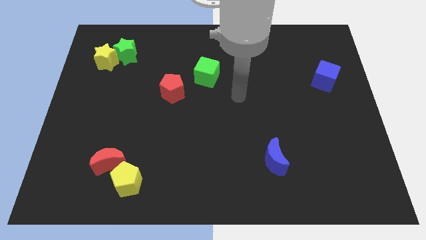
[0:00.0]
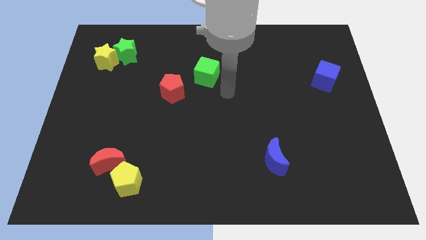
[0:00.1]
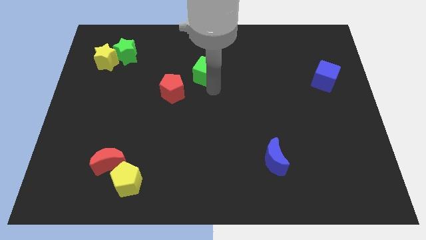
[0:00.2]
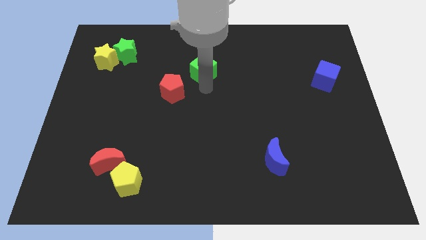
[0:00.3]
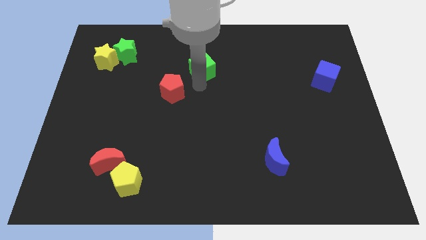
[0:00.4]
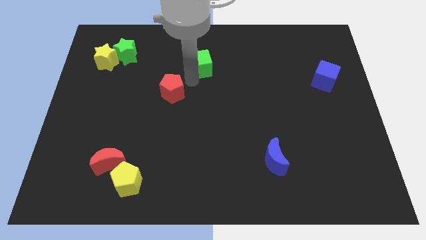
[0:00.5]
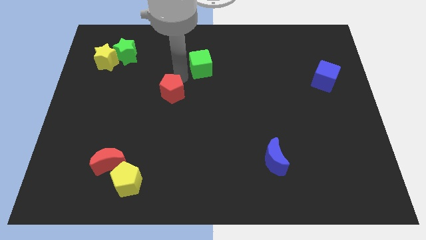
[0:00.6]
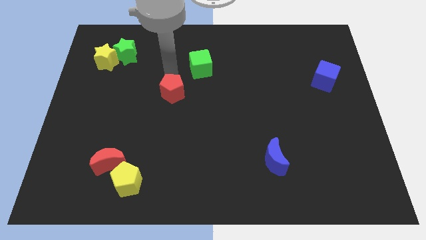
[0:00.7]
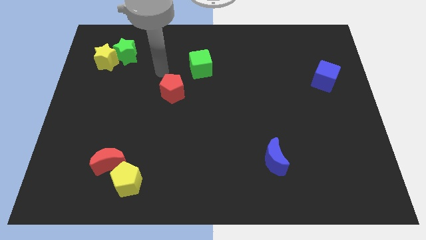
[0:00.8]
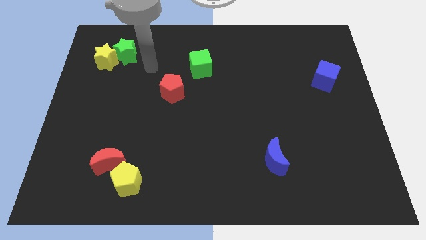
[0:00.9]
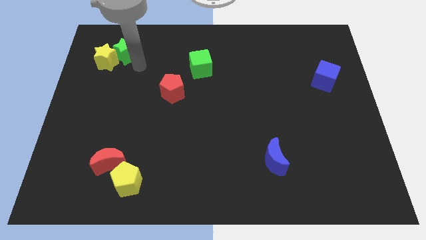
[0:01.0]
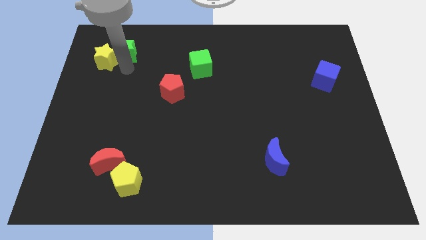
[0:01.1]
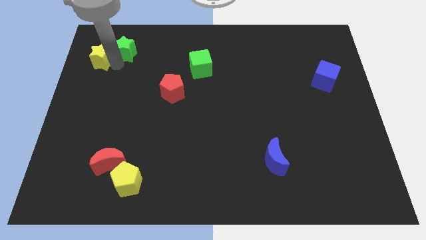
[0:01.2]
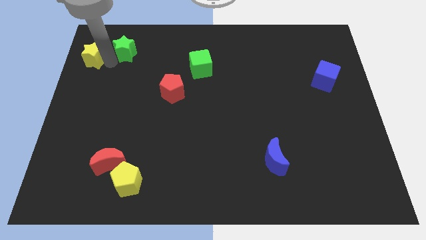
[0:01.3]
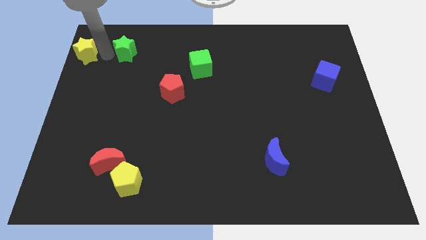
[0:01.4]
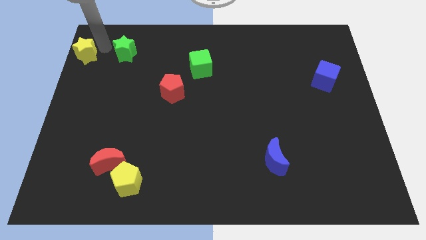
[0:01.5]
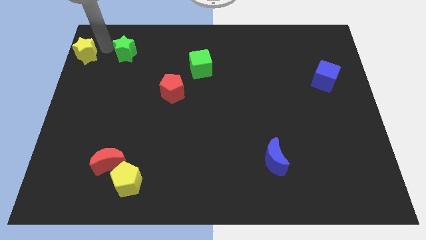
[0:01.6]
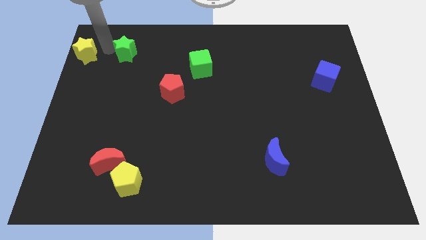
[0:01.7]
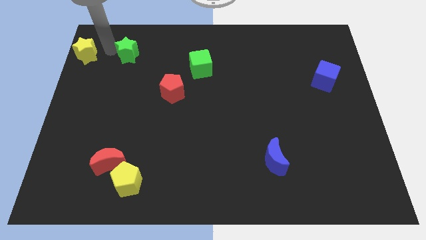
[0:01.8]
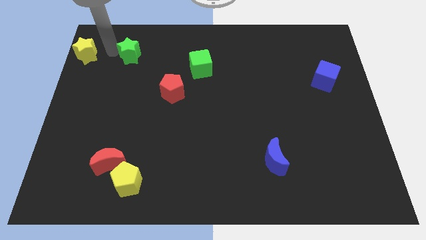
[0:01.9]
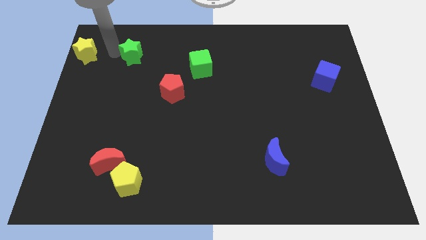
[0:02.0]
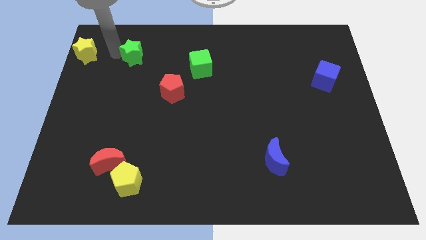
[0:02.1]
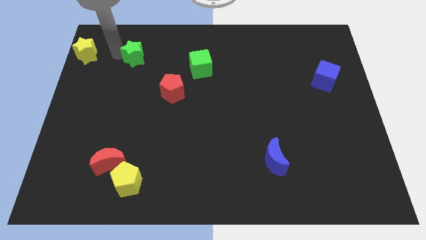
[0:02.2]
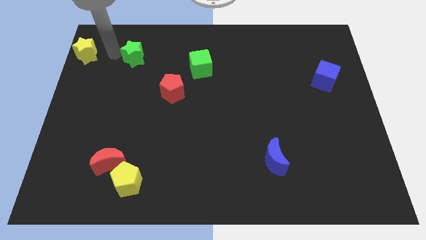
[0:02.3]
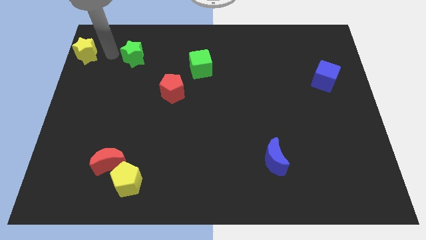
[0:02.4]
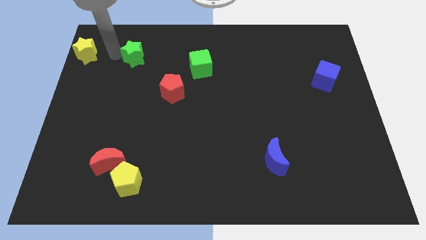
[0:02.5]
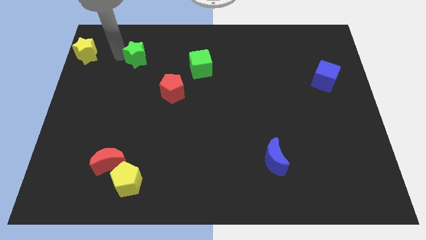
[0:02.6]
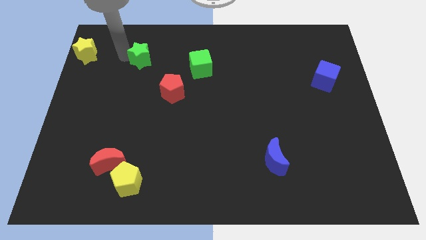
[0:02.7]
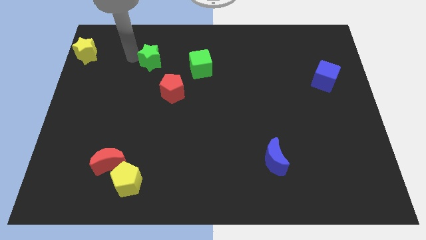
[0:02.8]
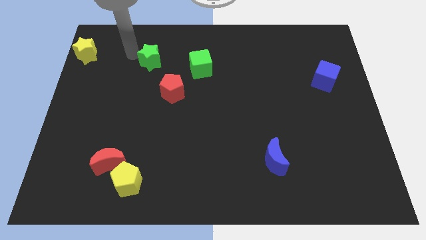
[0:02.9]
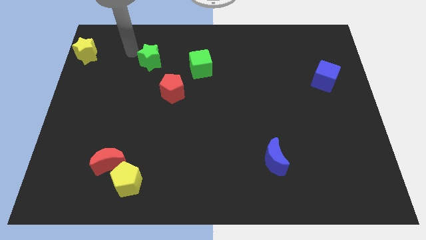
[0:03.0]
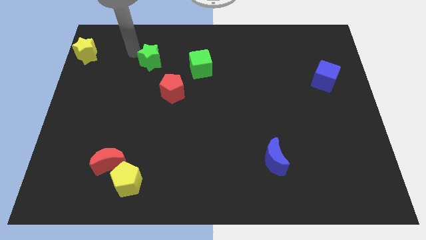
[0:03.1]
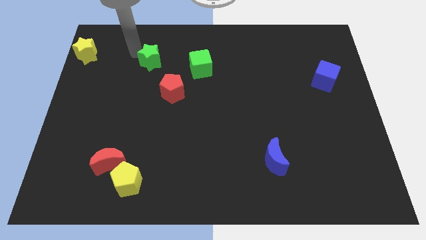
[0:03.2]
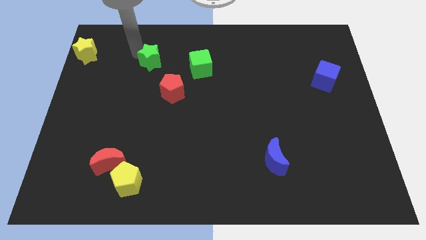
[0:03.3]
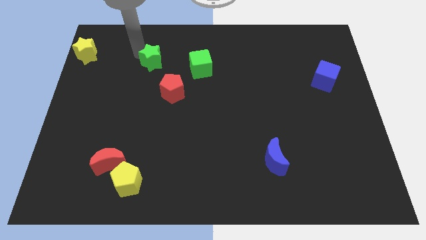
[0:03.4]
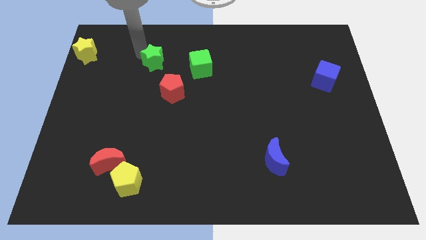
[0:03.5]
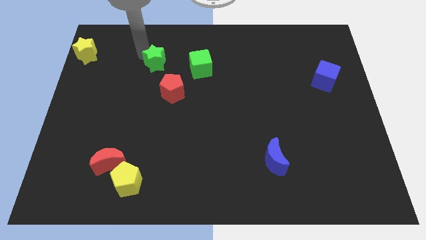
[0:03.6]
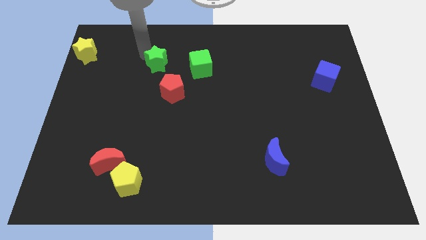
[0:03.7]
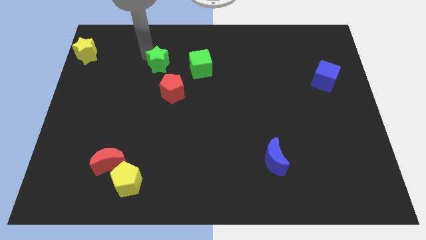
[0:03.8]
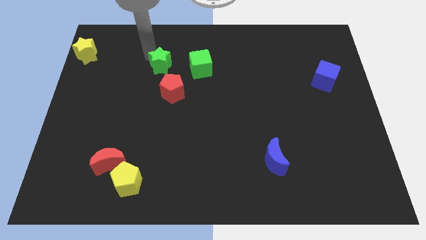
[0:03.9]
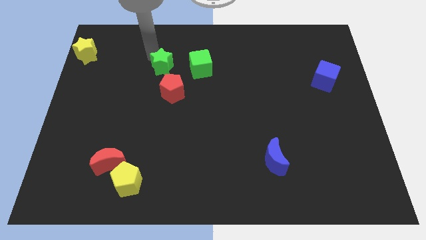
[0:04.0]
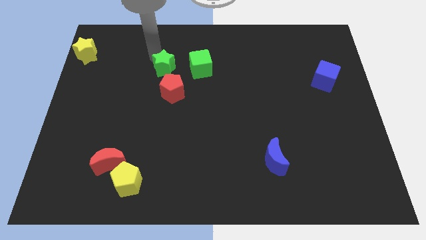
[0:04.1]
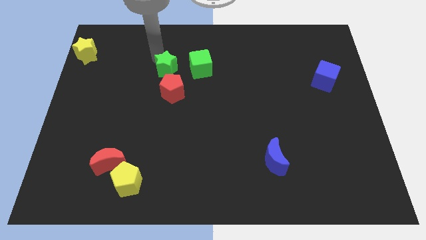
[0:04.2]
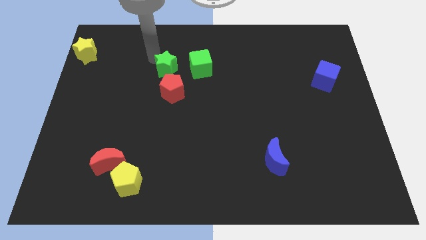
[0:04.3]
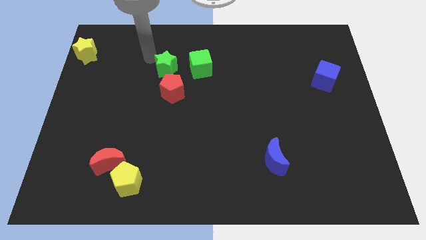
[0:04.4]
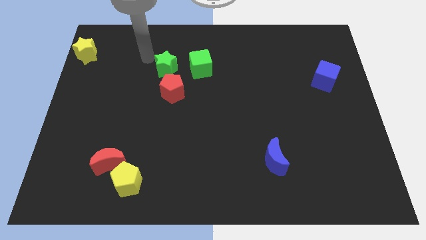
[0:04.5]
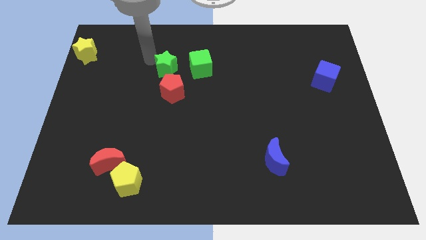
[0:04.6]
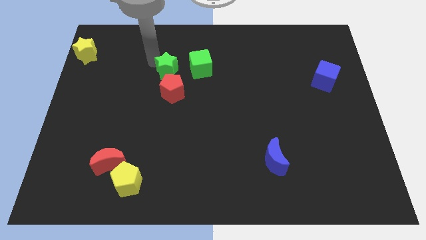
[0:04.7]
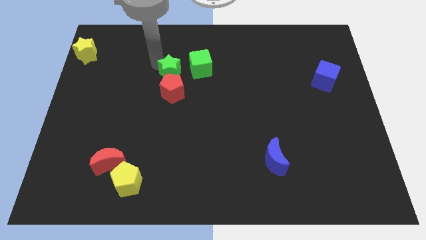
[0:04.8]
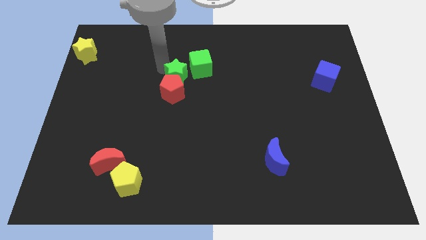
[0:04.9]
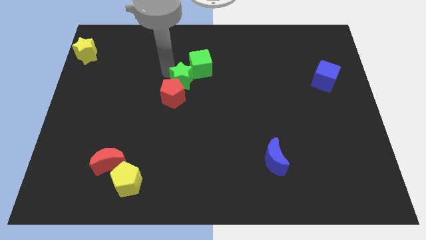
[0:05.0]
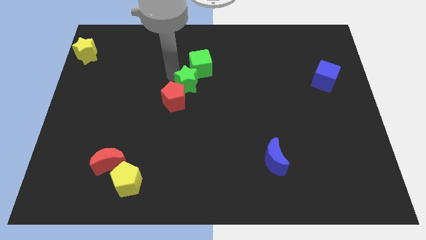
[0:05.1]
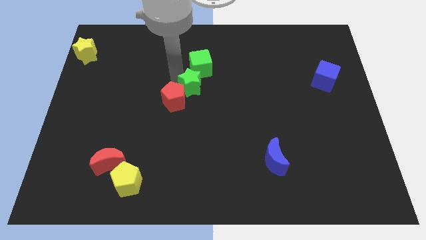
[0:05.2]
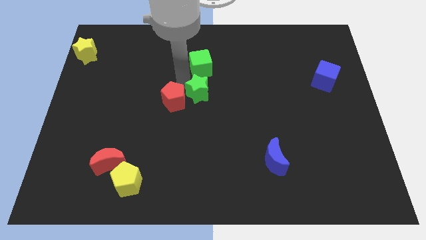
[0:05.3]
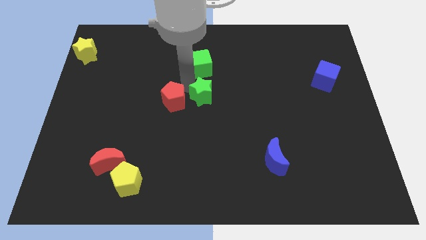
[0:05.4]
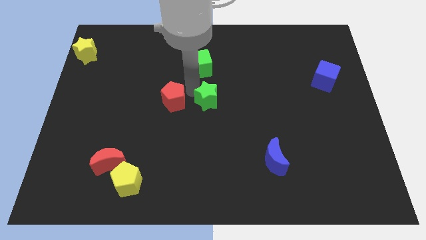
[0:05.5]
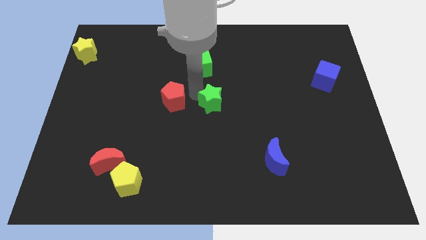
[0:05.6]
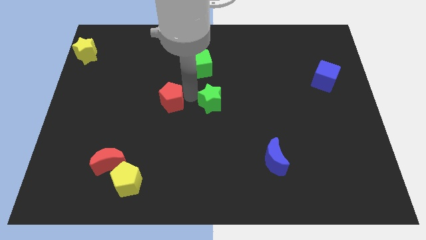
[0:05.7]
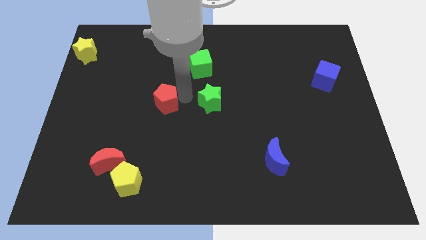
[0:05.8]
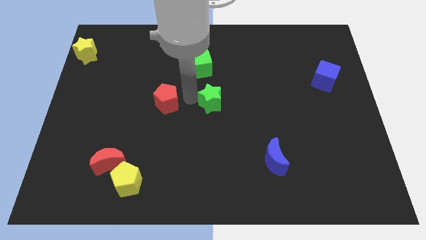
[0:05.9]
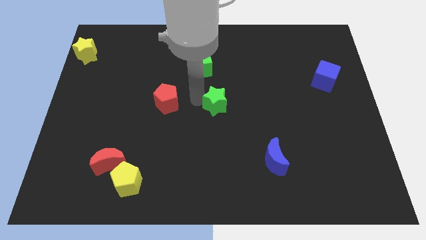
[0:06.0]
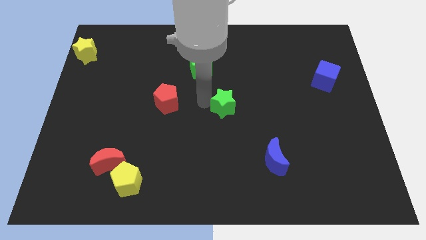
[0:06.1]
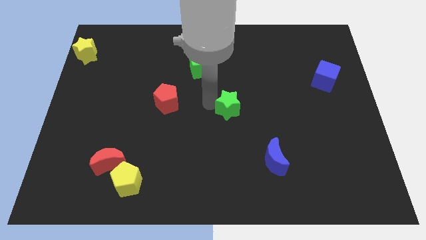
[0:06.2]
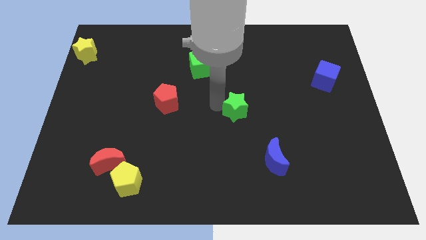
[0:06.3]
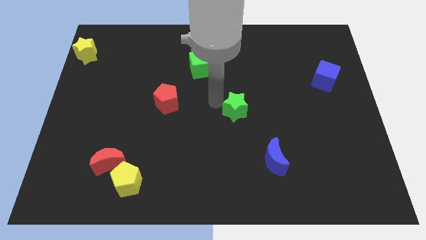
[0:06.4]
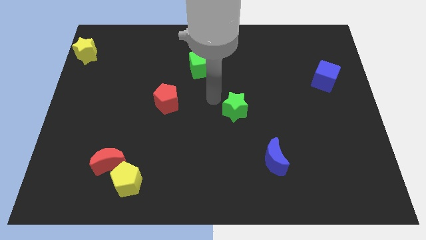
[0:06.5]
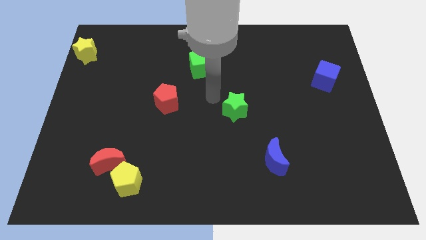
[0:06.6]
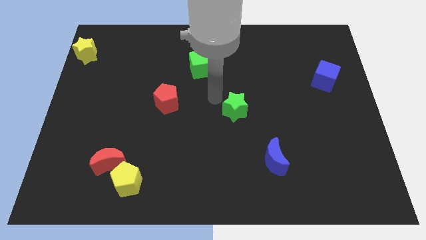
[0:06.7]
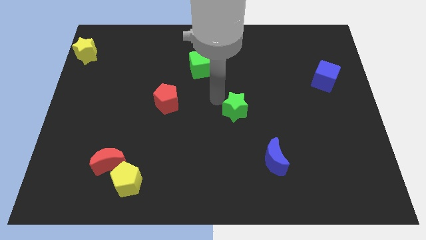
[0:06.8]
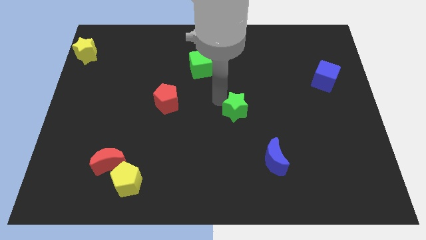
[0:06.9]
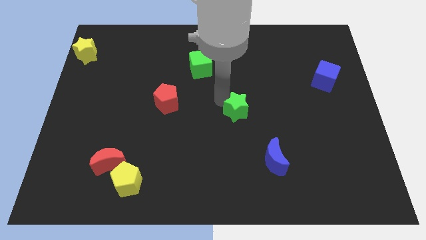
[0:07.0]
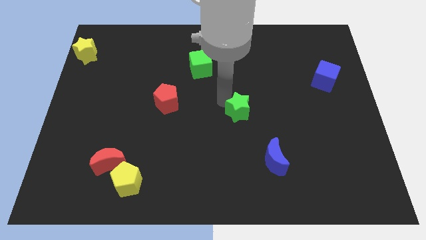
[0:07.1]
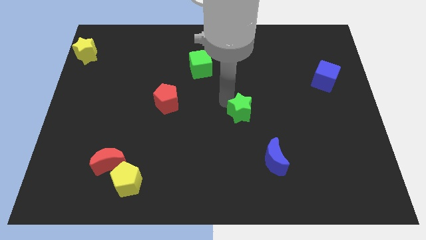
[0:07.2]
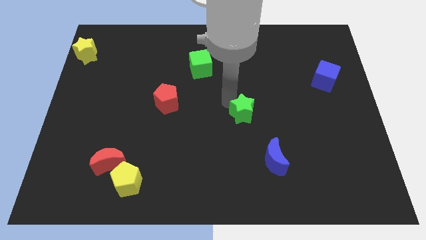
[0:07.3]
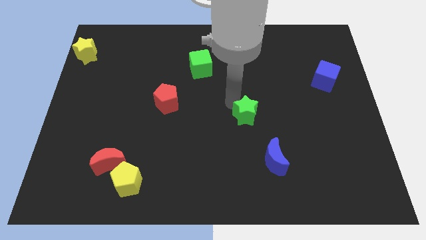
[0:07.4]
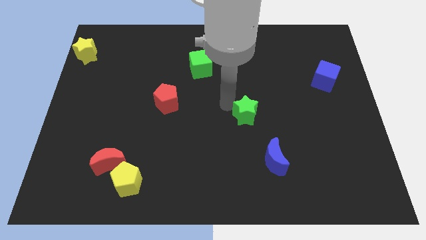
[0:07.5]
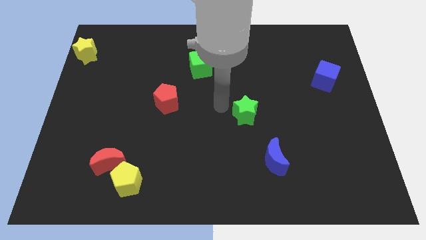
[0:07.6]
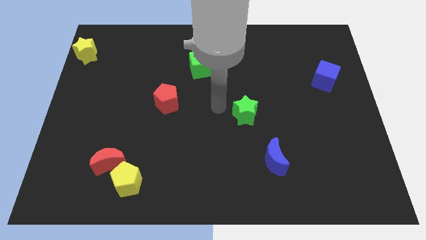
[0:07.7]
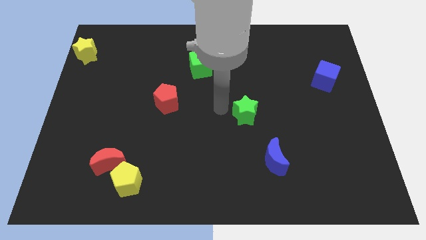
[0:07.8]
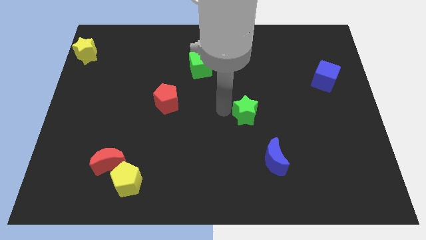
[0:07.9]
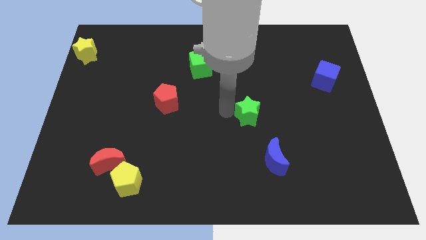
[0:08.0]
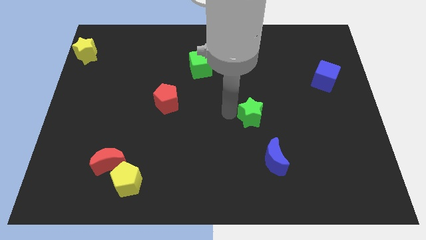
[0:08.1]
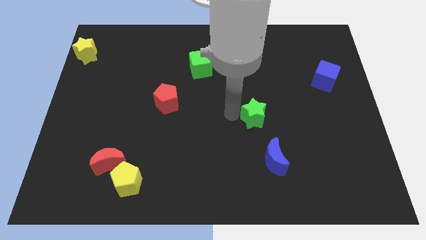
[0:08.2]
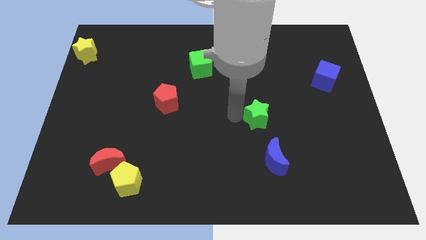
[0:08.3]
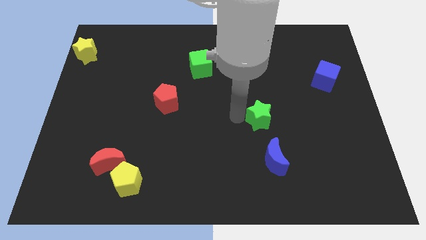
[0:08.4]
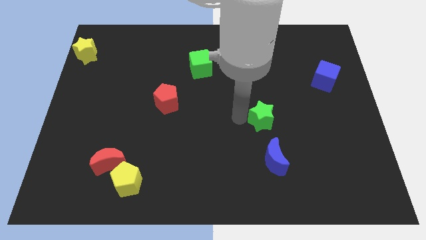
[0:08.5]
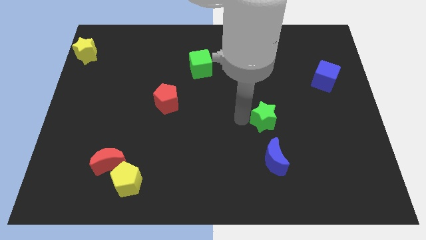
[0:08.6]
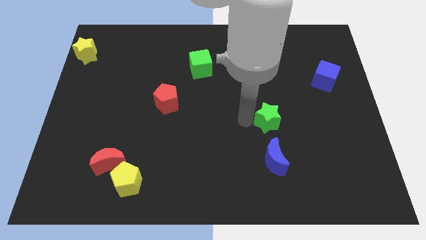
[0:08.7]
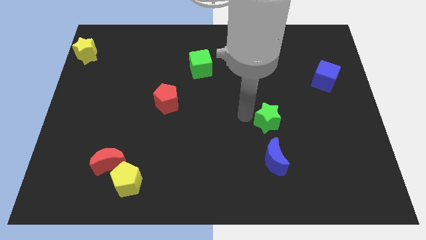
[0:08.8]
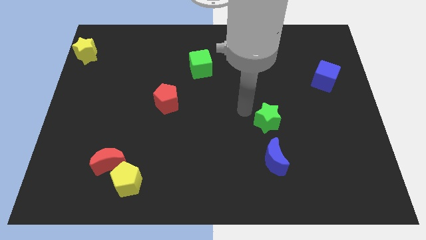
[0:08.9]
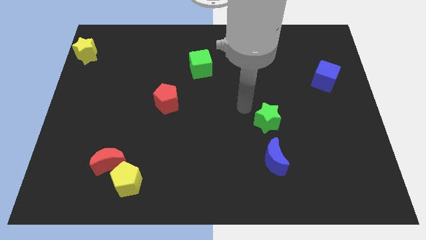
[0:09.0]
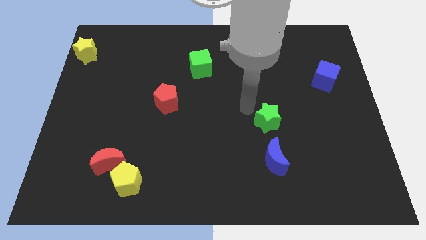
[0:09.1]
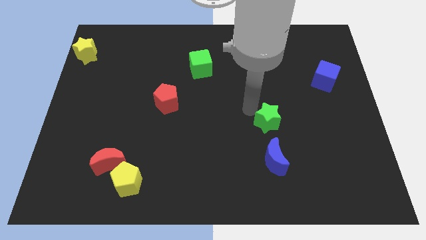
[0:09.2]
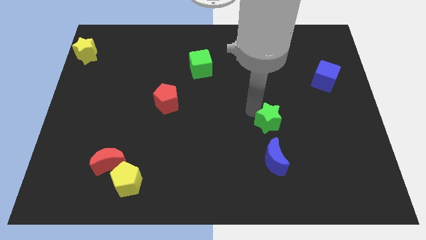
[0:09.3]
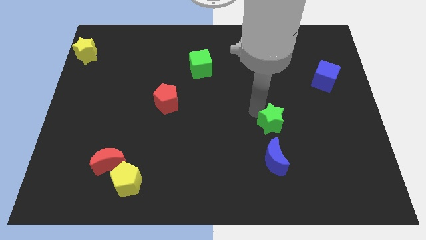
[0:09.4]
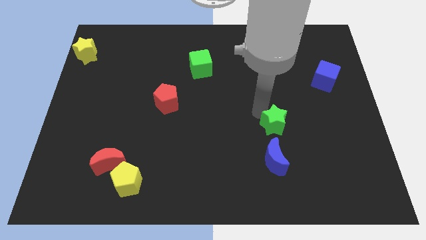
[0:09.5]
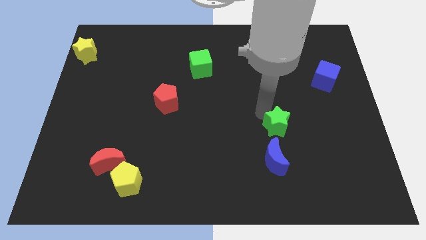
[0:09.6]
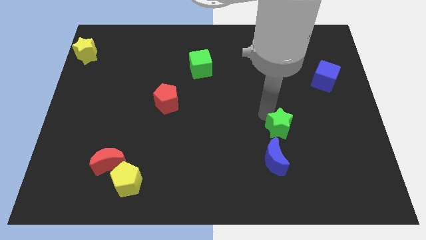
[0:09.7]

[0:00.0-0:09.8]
push the green star diagonally up and to the right of the blue moon
